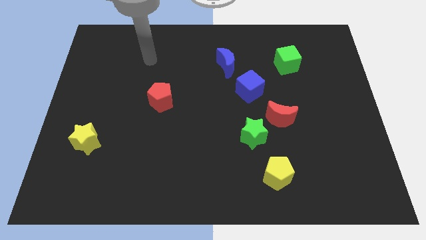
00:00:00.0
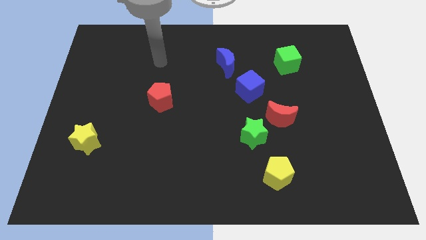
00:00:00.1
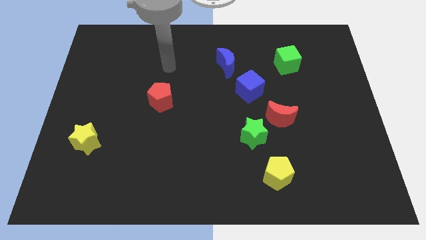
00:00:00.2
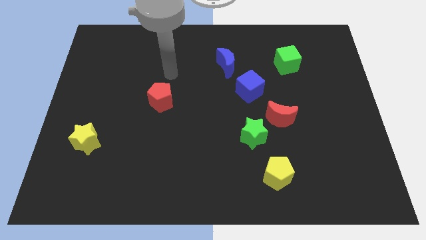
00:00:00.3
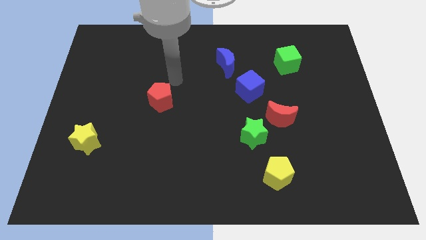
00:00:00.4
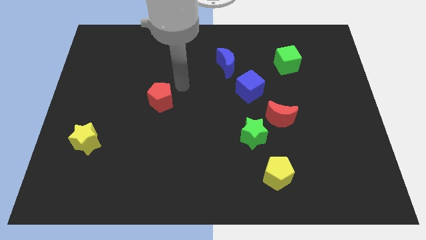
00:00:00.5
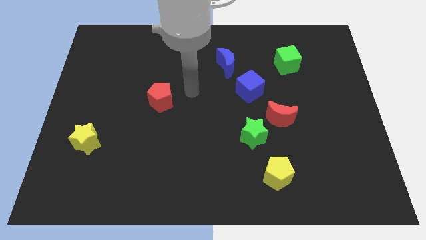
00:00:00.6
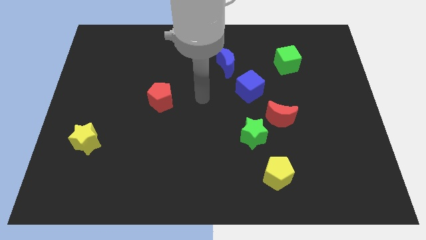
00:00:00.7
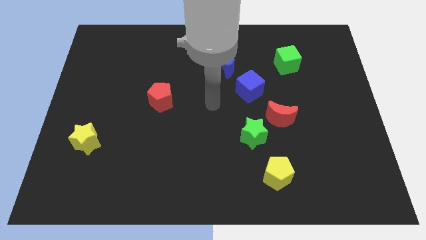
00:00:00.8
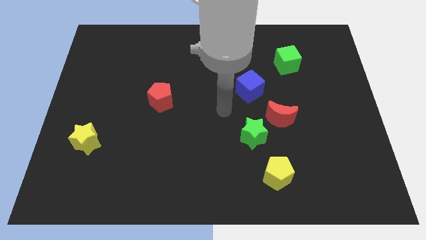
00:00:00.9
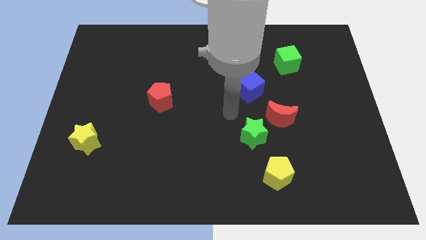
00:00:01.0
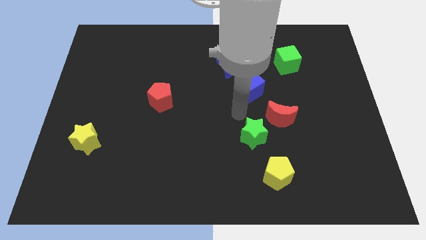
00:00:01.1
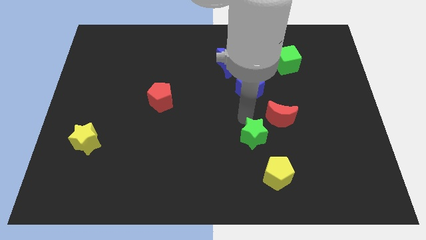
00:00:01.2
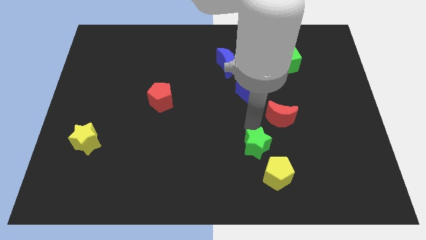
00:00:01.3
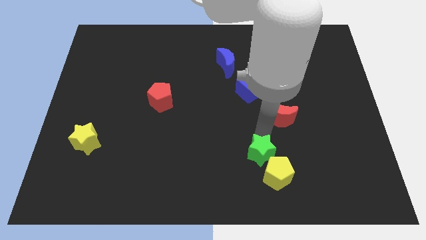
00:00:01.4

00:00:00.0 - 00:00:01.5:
move the red moon away from the green star

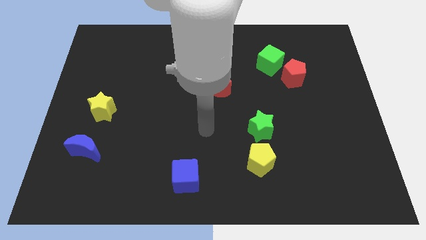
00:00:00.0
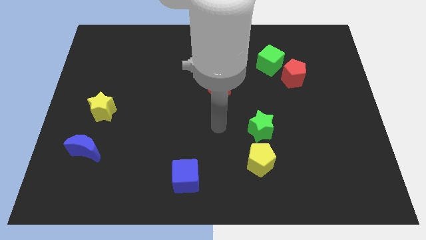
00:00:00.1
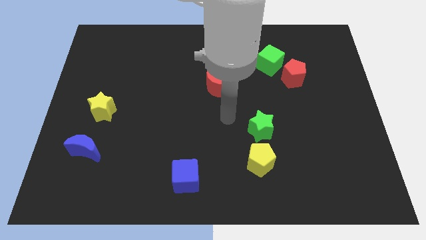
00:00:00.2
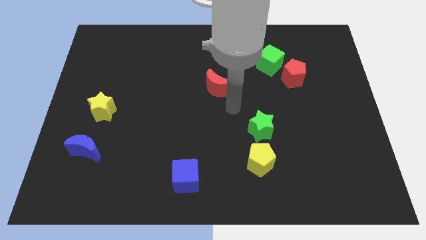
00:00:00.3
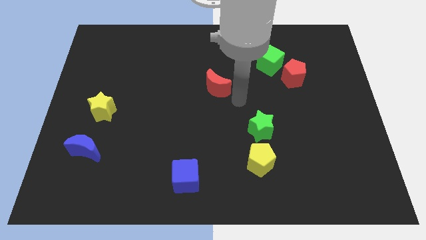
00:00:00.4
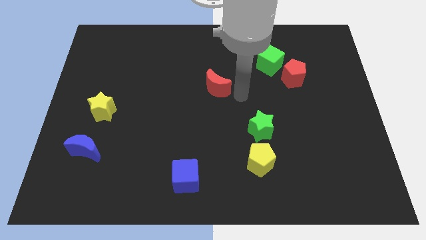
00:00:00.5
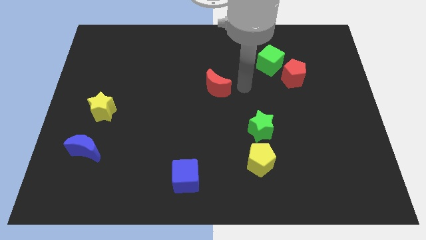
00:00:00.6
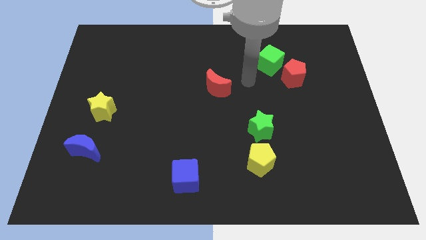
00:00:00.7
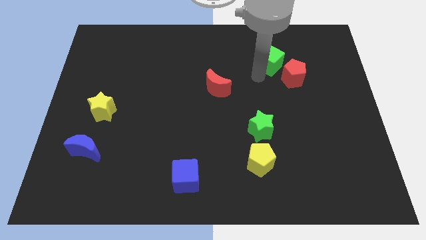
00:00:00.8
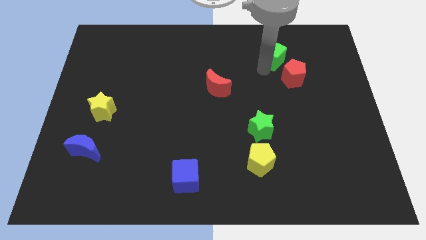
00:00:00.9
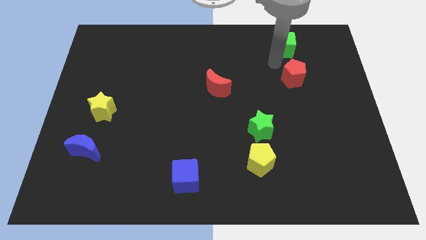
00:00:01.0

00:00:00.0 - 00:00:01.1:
pull the red pentagon apart from the green cube

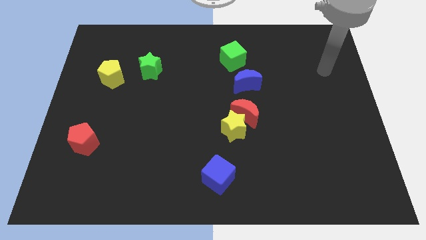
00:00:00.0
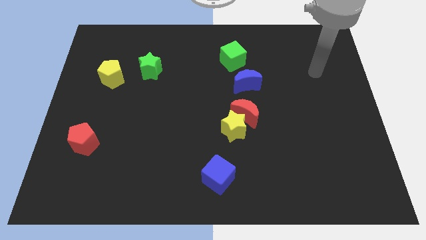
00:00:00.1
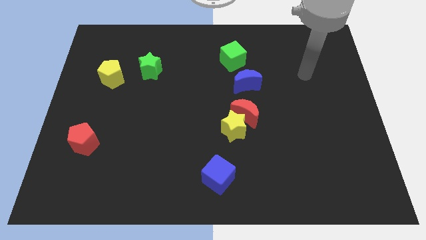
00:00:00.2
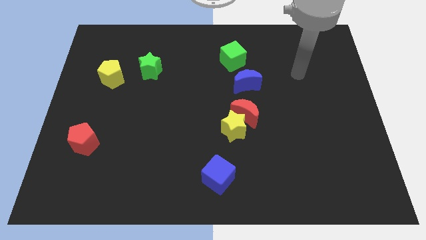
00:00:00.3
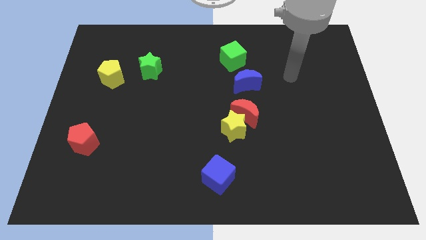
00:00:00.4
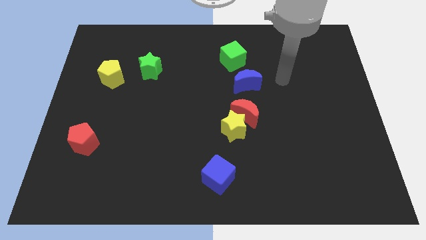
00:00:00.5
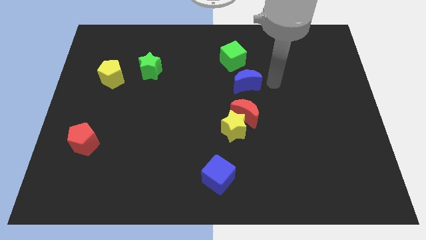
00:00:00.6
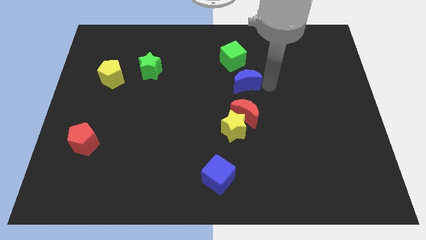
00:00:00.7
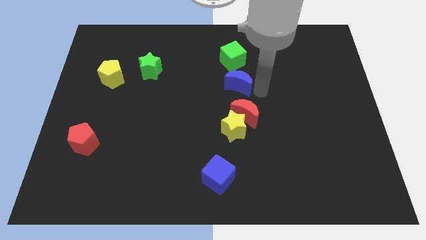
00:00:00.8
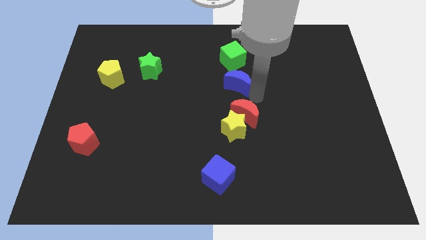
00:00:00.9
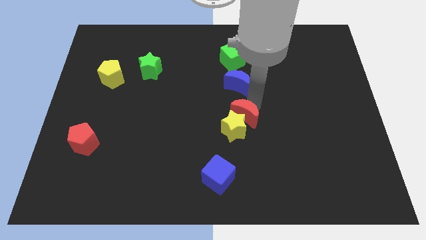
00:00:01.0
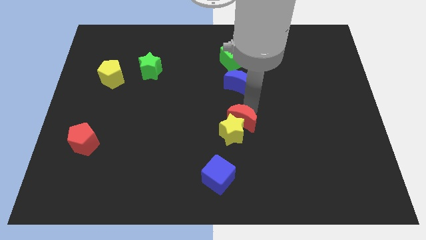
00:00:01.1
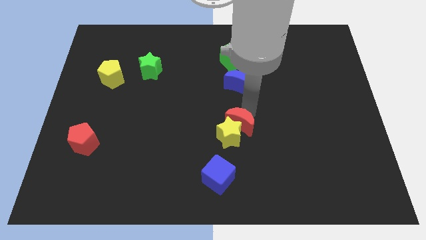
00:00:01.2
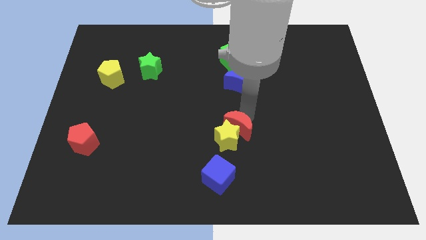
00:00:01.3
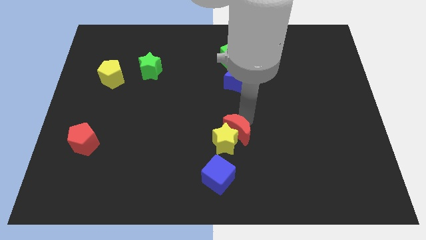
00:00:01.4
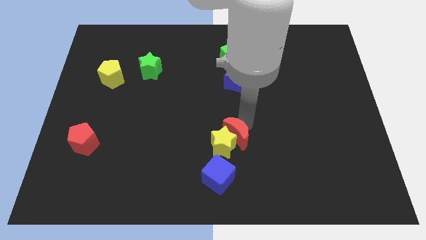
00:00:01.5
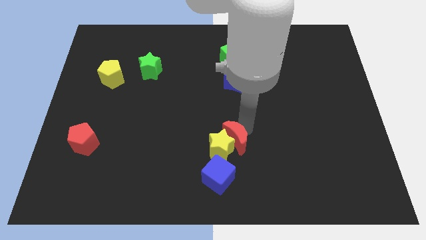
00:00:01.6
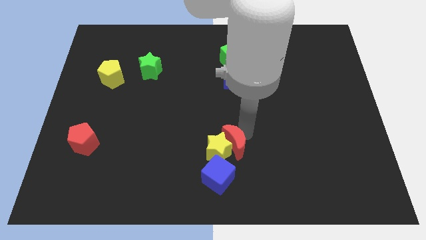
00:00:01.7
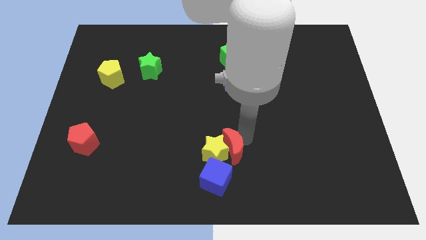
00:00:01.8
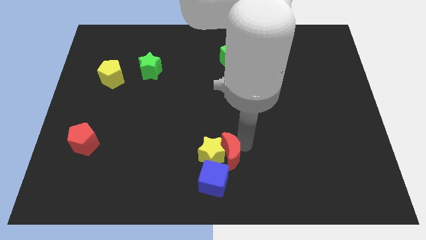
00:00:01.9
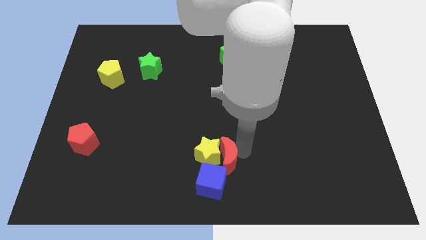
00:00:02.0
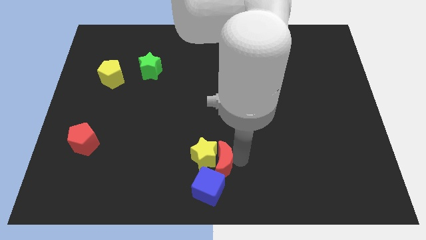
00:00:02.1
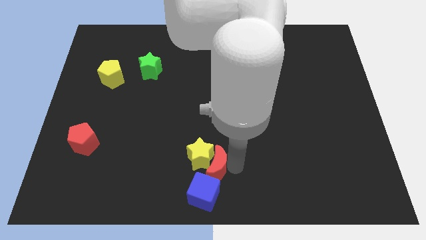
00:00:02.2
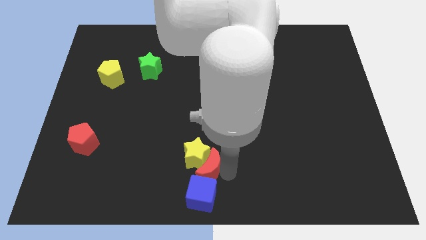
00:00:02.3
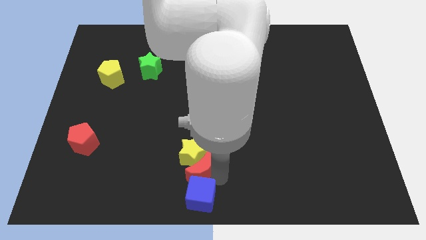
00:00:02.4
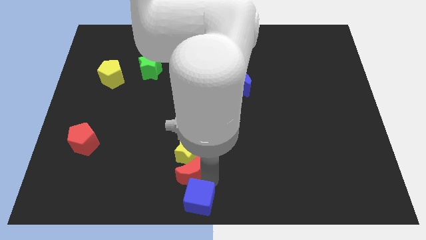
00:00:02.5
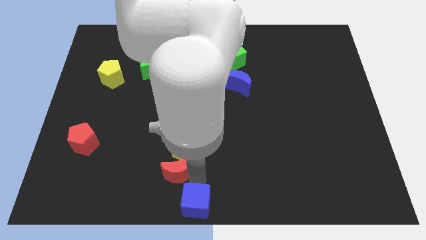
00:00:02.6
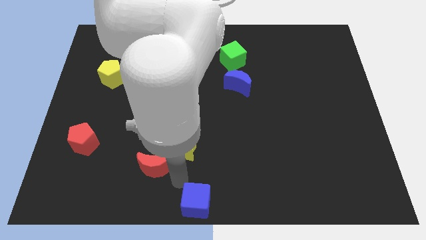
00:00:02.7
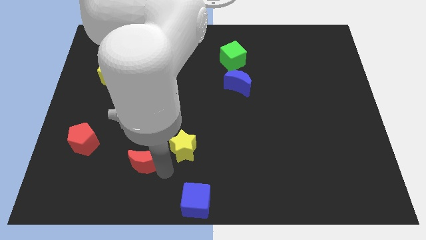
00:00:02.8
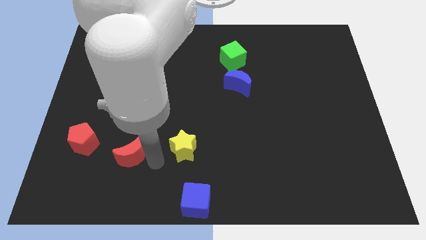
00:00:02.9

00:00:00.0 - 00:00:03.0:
separate the yellow star from the red moon

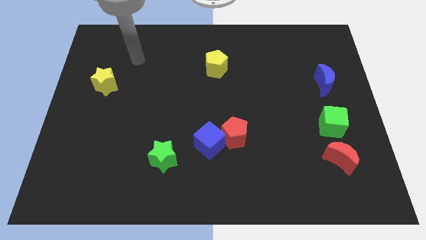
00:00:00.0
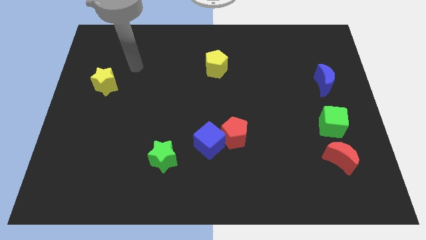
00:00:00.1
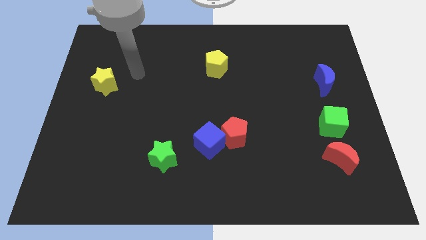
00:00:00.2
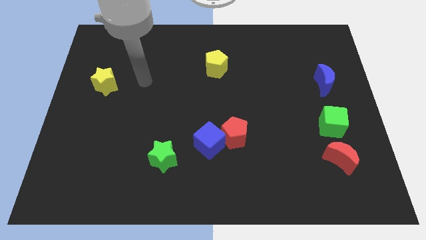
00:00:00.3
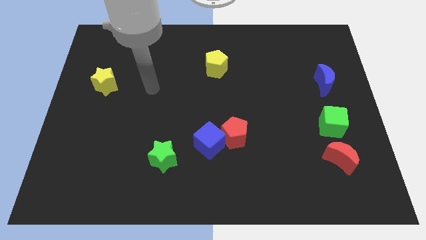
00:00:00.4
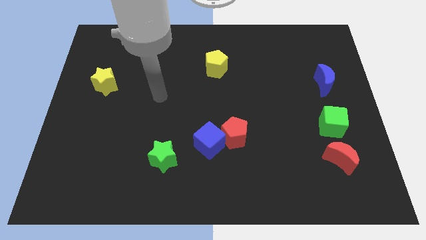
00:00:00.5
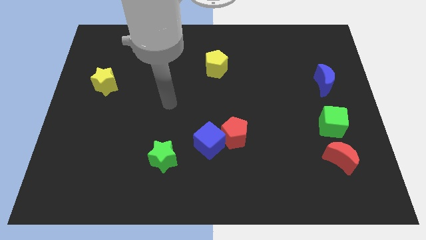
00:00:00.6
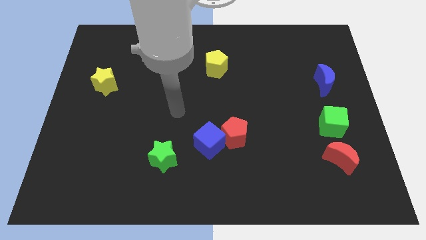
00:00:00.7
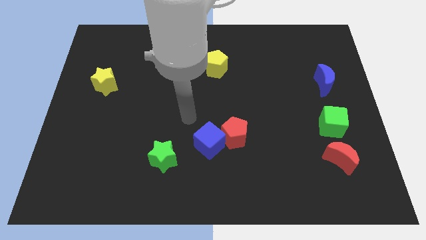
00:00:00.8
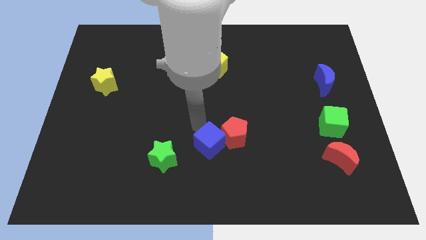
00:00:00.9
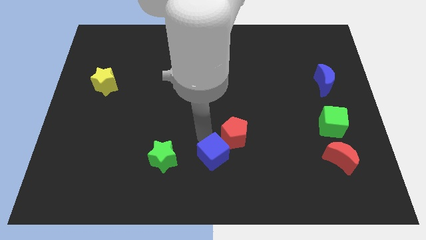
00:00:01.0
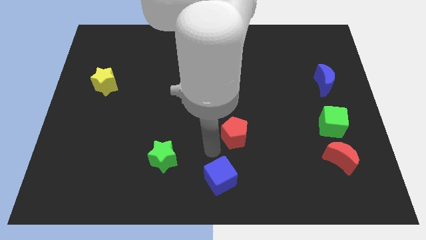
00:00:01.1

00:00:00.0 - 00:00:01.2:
separate the red pentagon from the blue cube

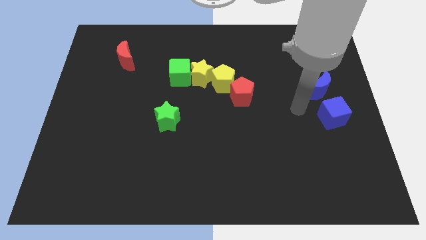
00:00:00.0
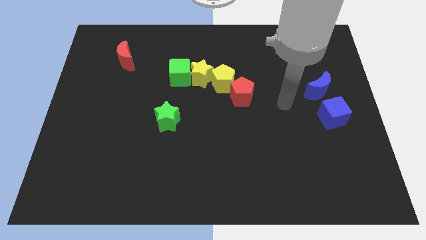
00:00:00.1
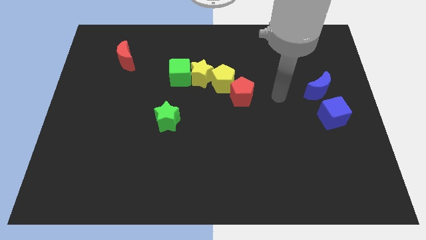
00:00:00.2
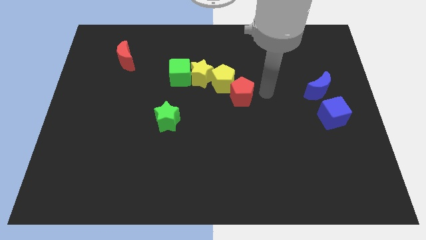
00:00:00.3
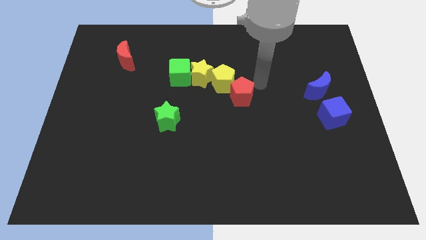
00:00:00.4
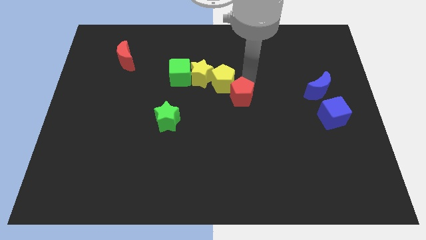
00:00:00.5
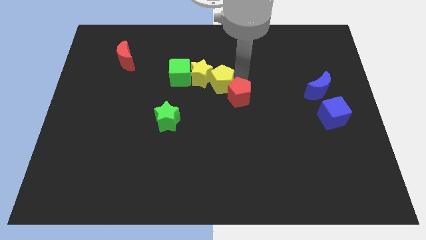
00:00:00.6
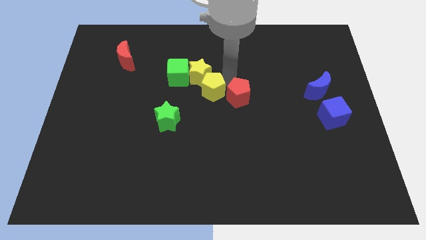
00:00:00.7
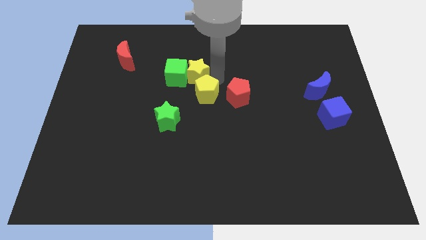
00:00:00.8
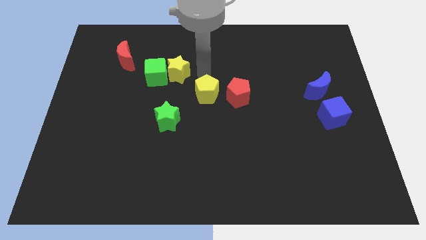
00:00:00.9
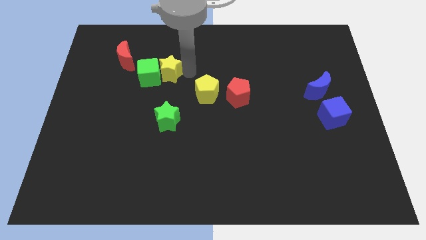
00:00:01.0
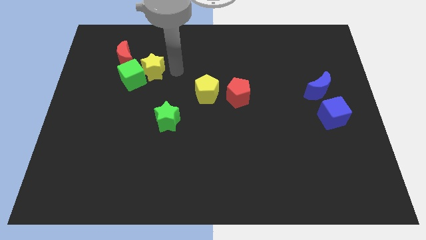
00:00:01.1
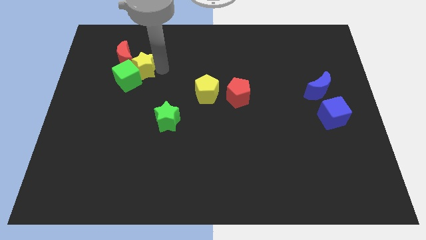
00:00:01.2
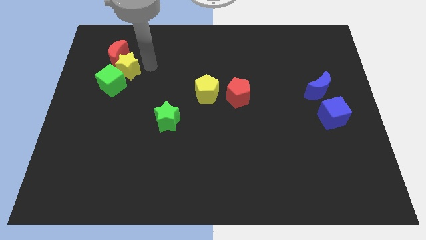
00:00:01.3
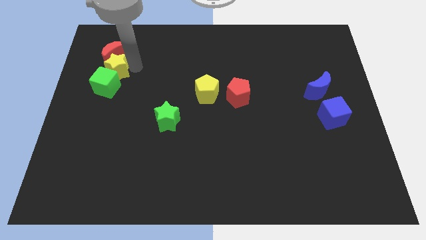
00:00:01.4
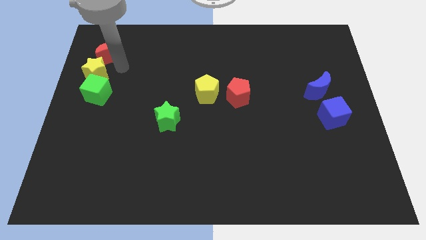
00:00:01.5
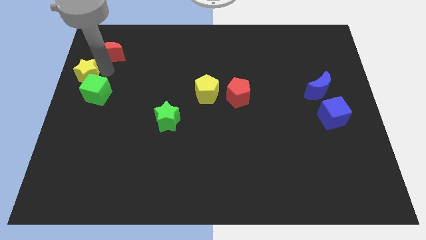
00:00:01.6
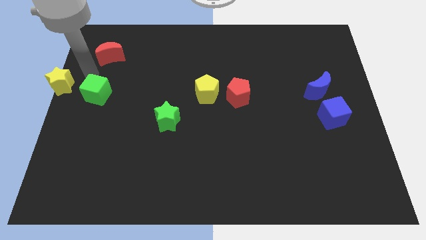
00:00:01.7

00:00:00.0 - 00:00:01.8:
pull the green cube apart from the yellow star

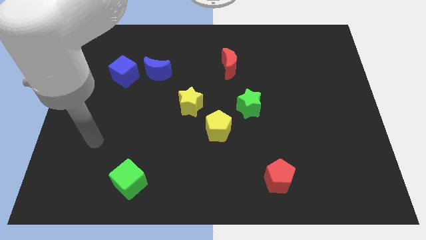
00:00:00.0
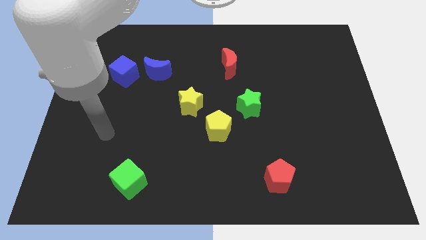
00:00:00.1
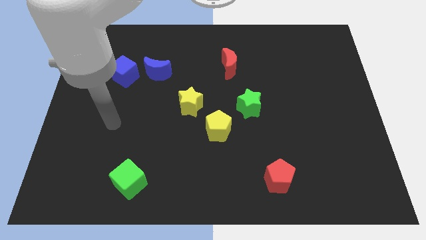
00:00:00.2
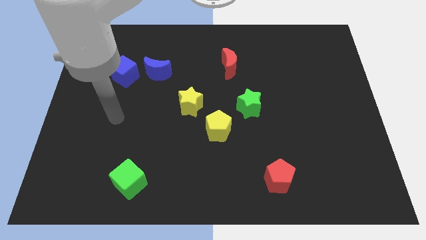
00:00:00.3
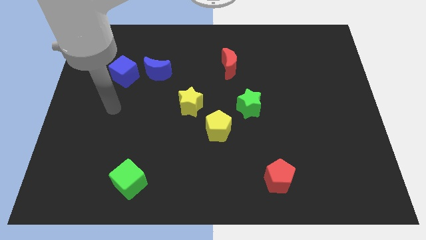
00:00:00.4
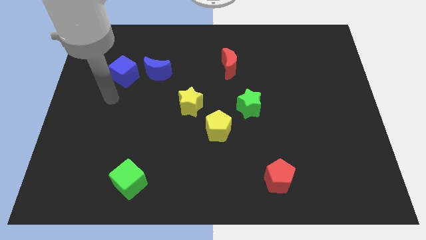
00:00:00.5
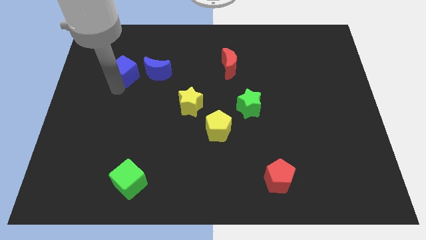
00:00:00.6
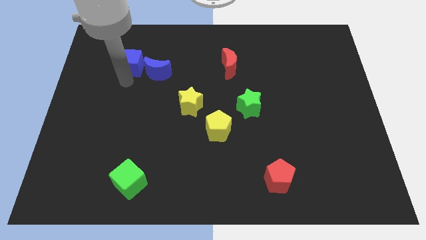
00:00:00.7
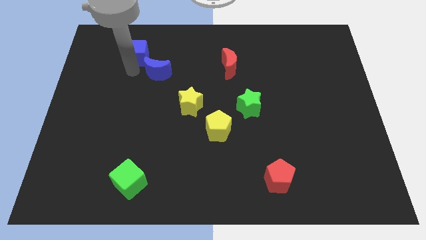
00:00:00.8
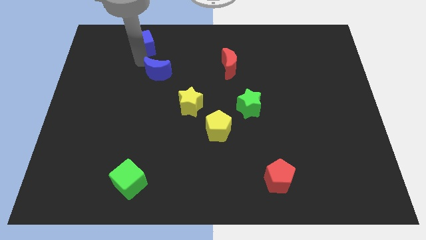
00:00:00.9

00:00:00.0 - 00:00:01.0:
separate the blue moon from the blue cube
